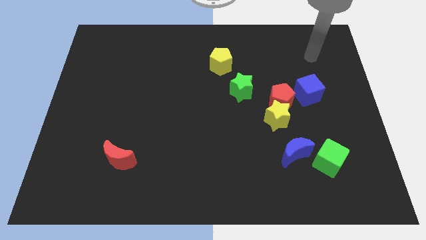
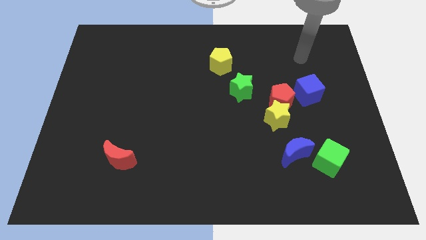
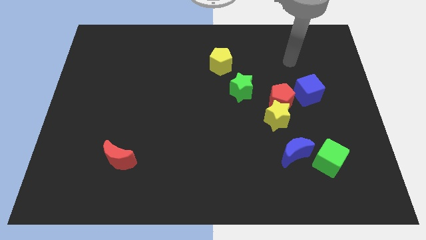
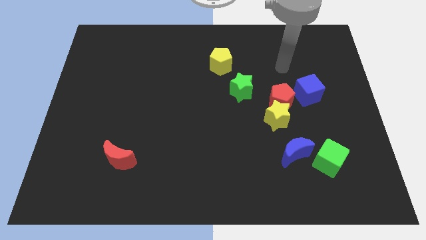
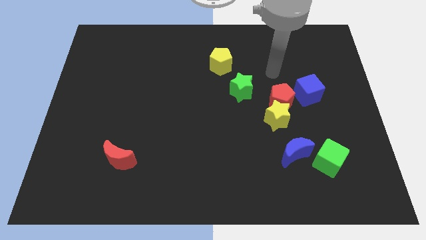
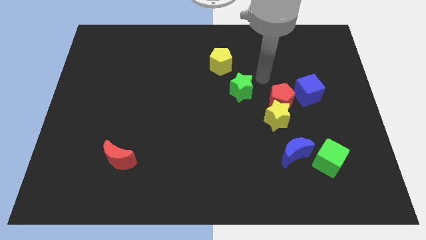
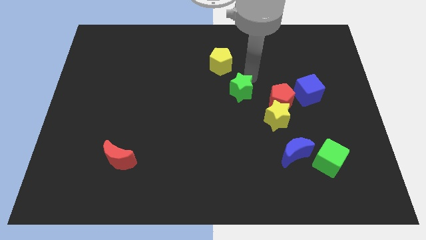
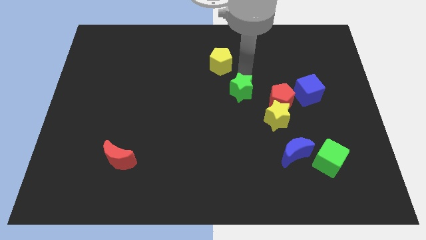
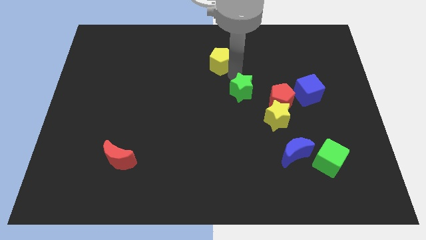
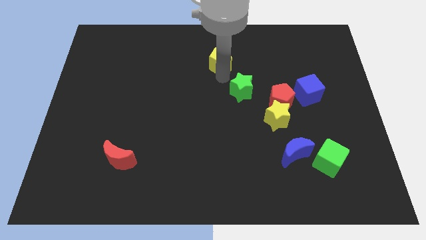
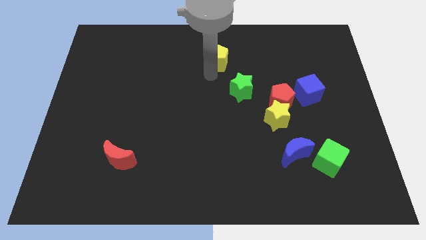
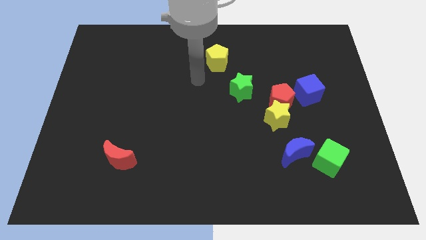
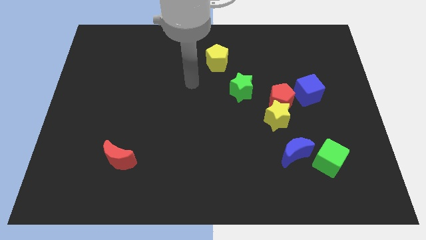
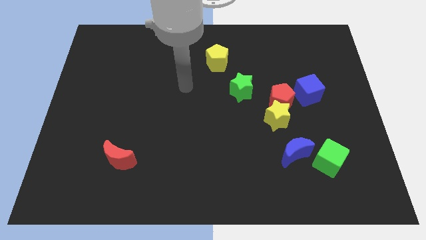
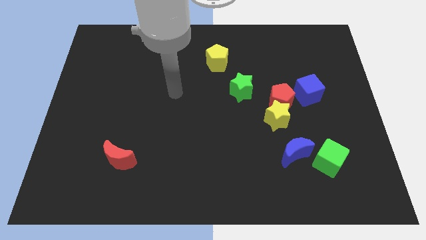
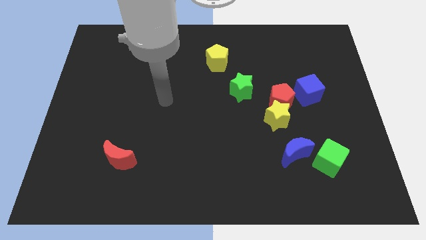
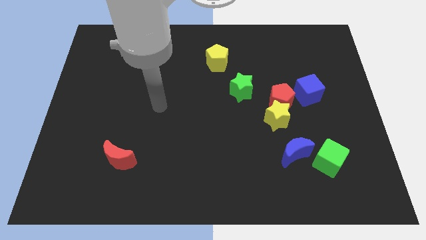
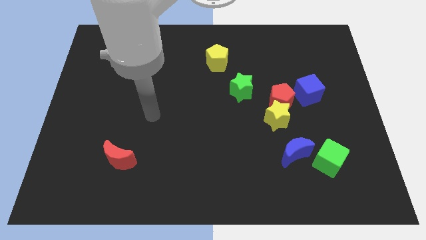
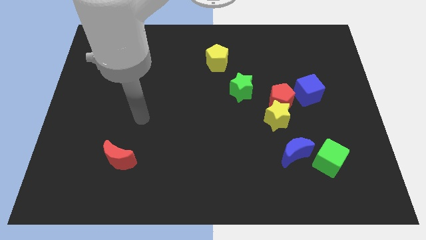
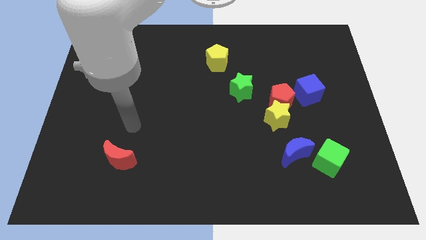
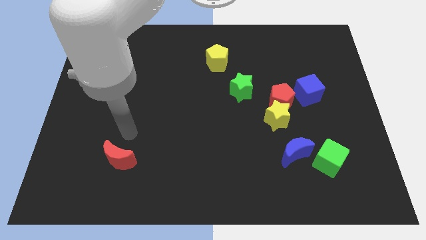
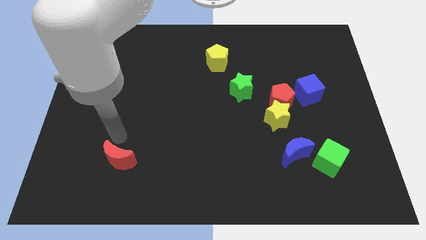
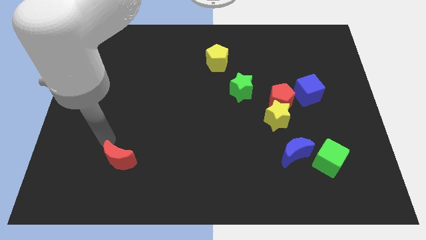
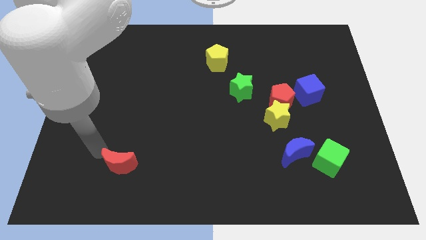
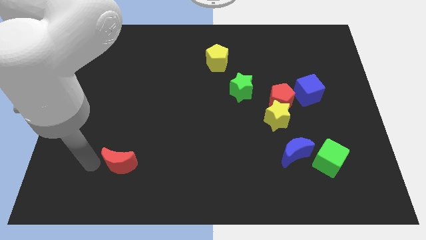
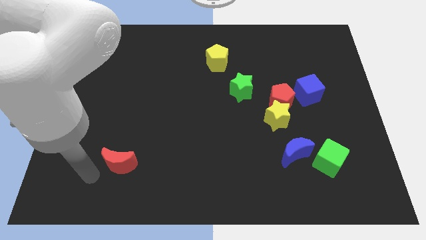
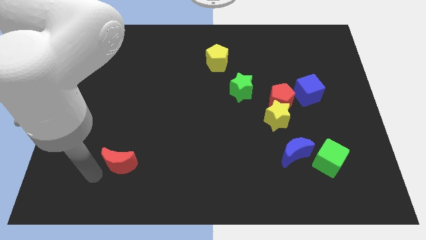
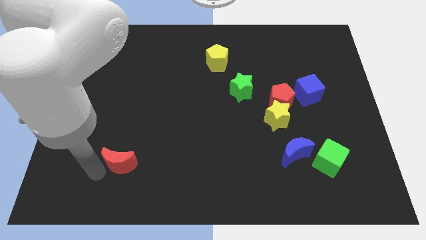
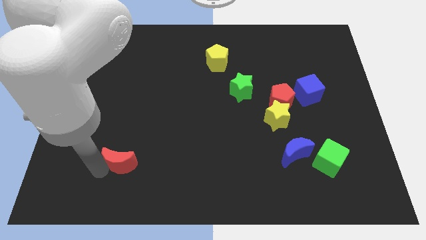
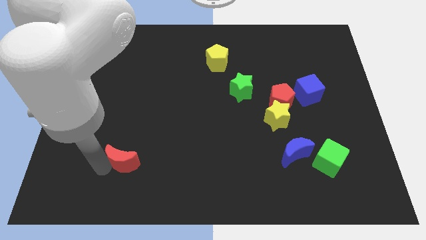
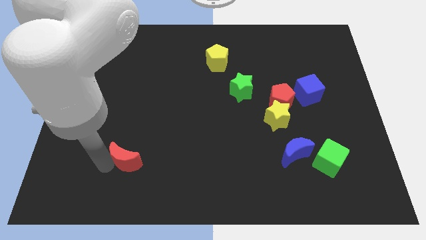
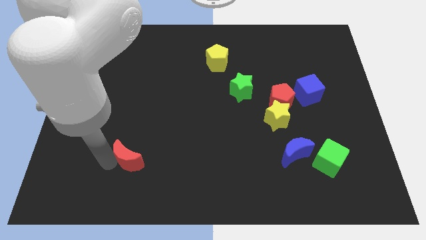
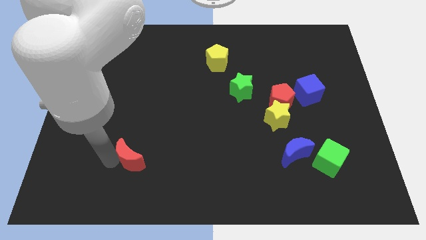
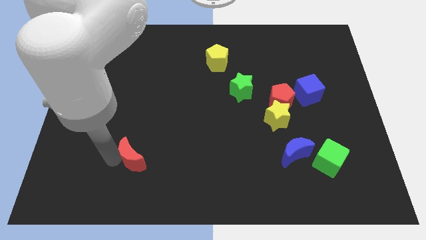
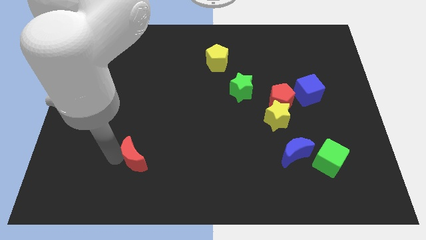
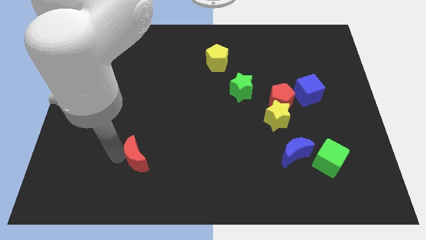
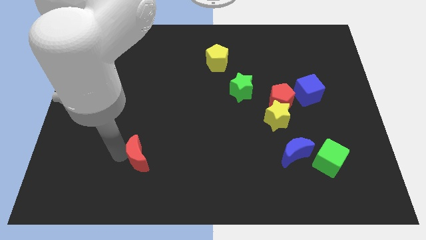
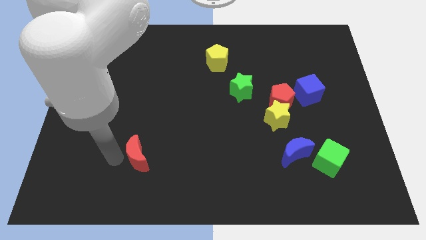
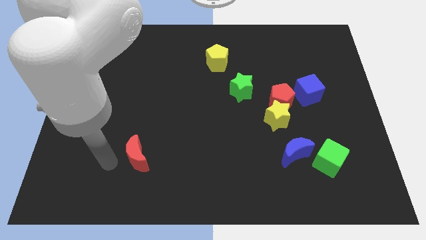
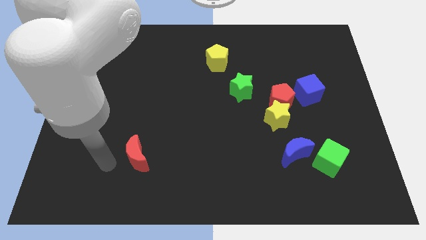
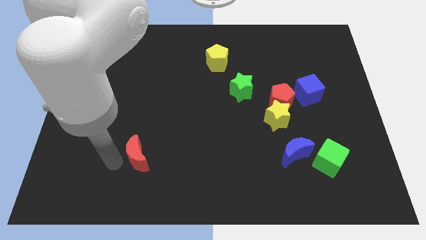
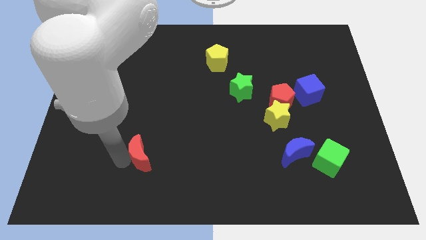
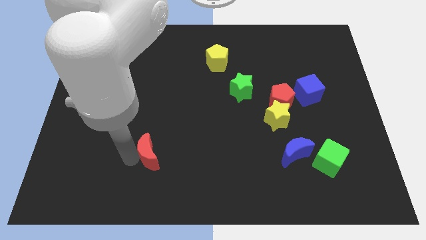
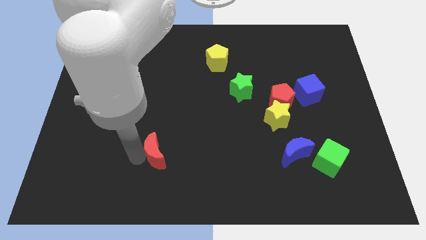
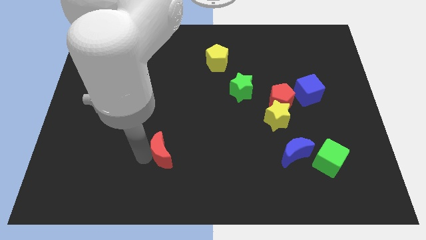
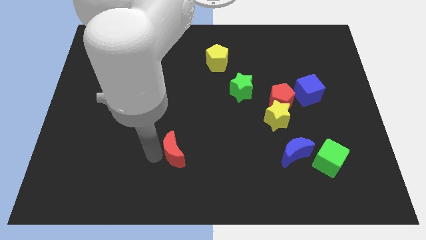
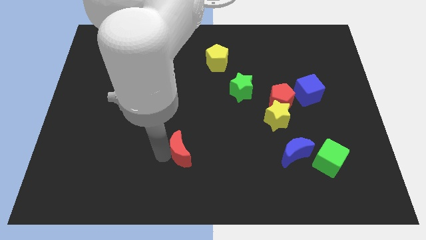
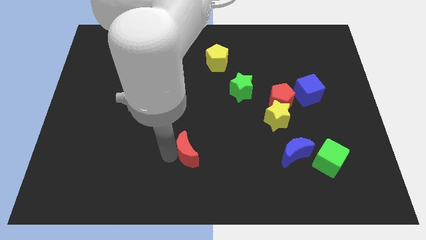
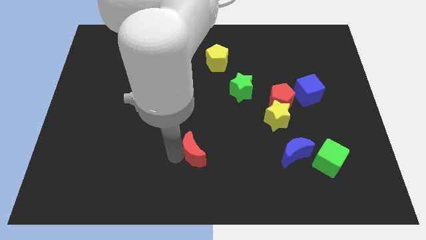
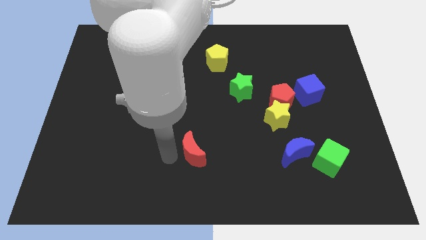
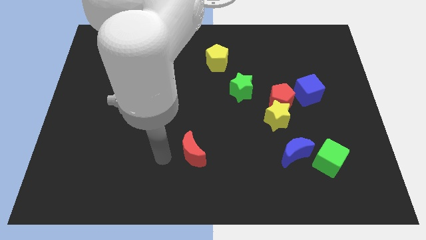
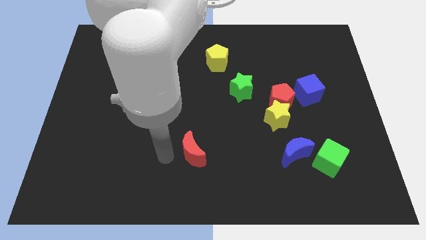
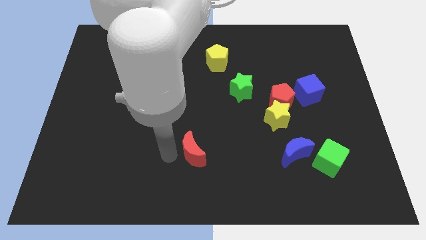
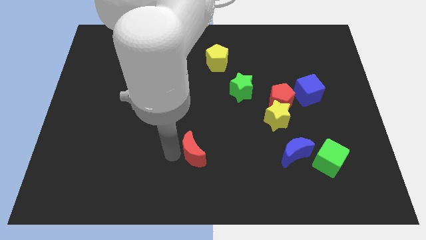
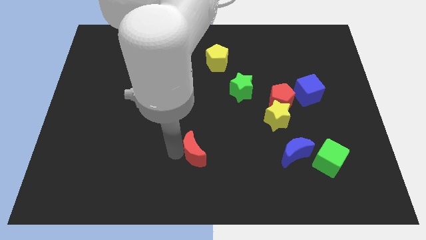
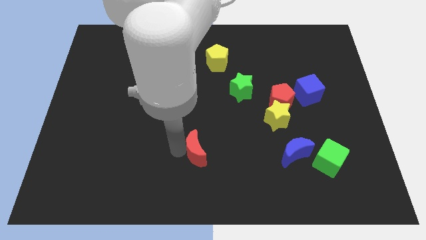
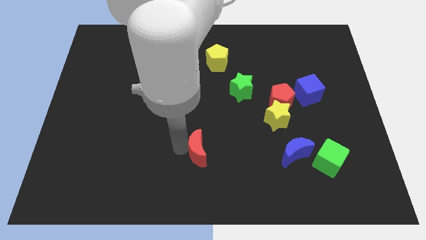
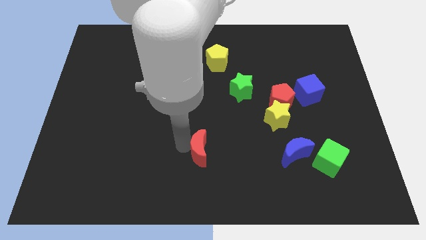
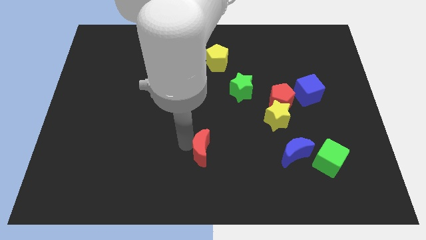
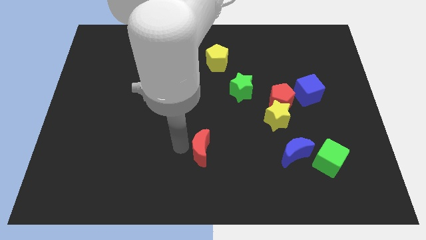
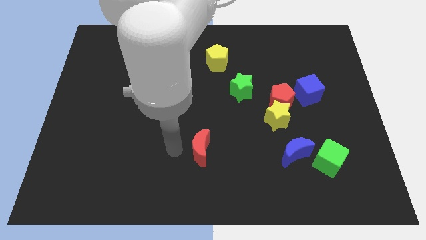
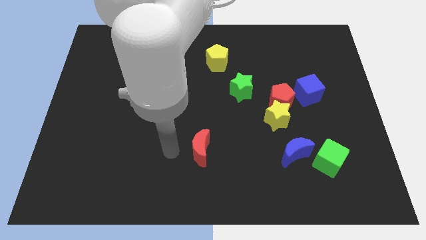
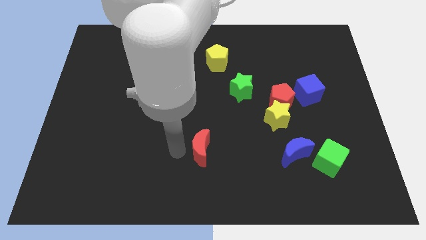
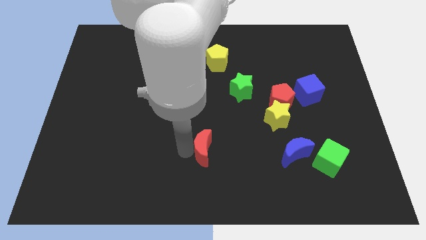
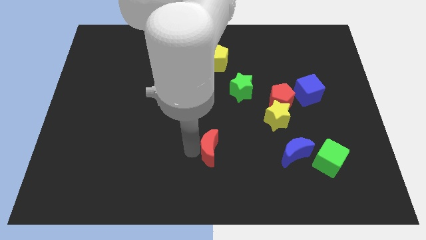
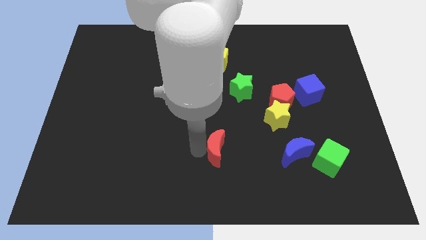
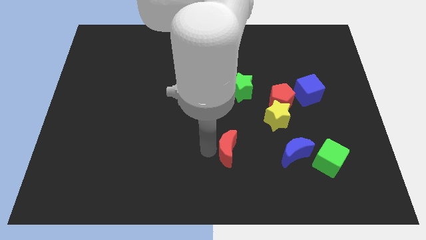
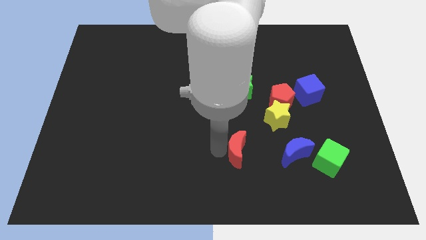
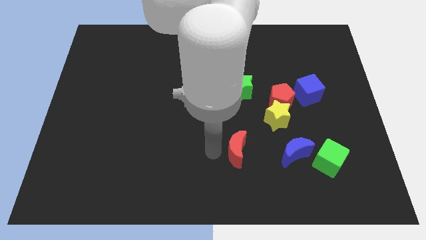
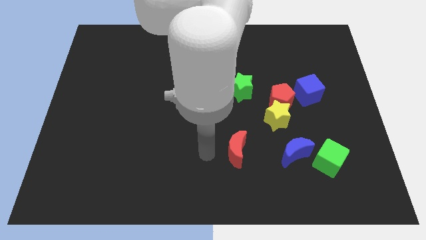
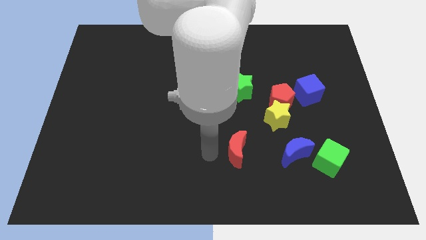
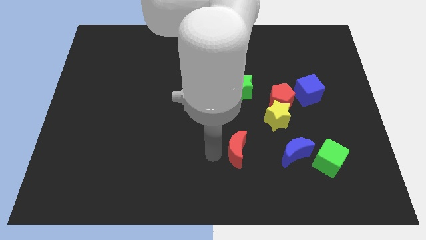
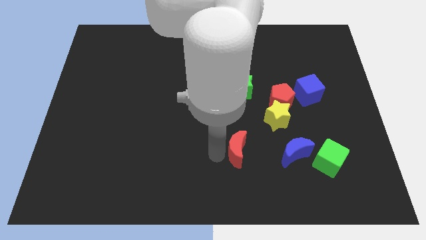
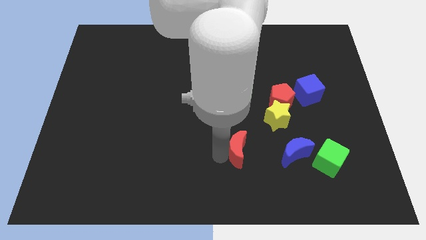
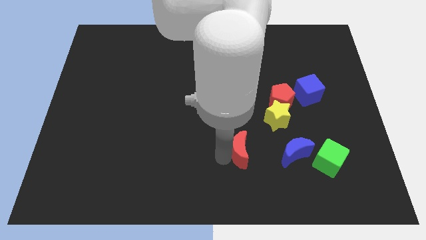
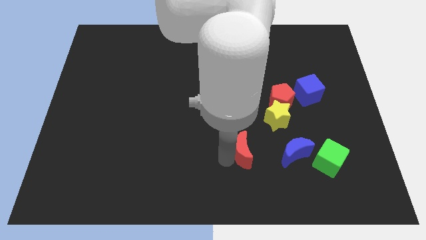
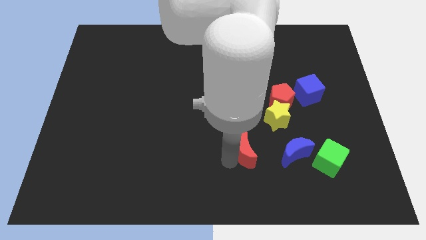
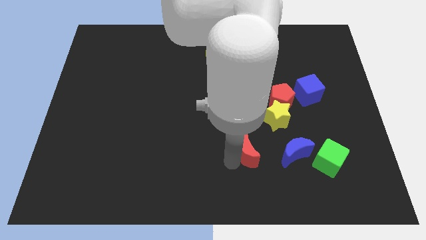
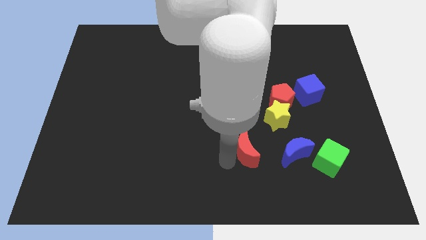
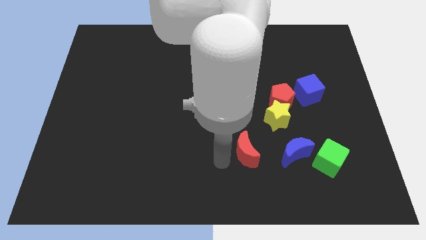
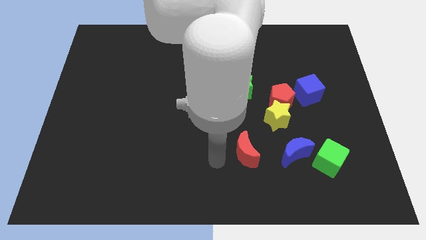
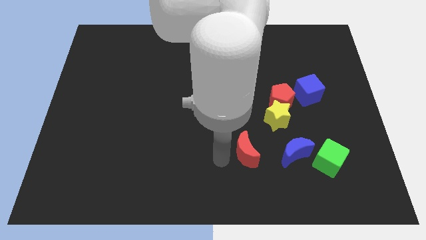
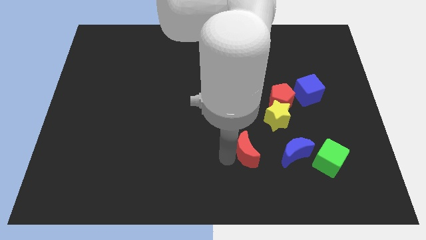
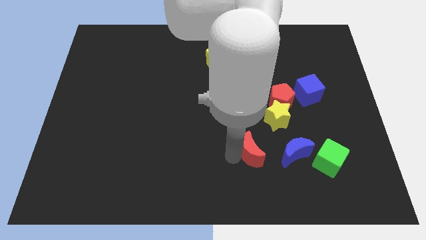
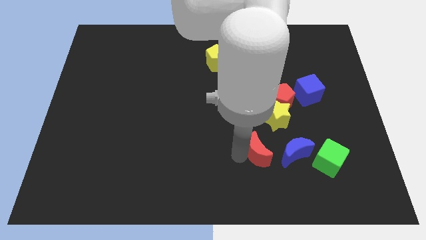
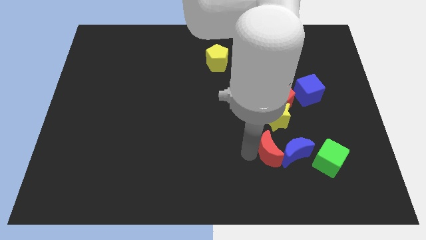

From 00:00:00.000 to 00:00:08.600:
put the red moon close to the blue moon
